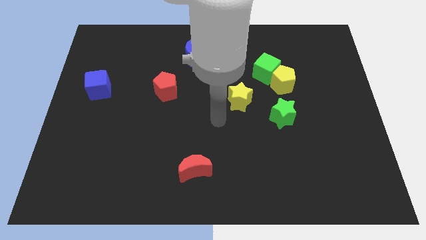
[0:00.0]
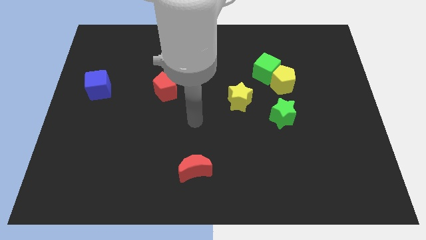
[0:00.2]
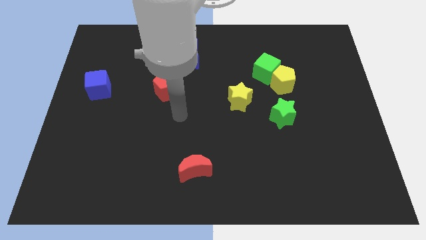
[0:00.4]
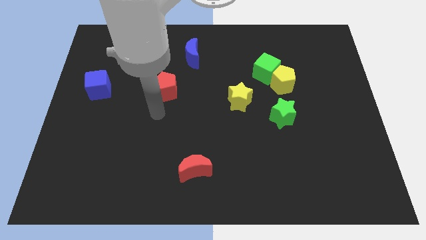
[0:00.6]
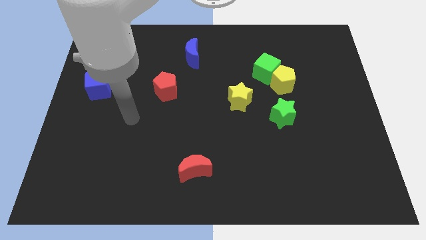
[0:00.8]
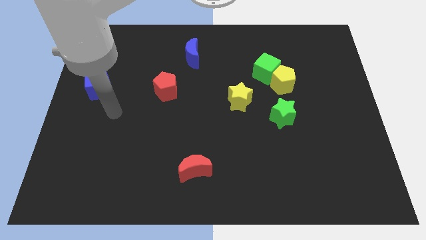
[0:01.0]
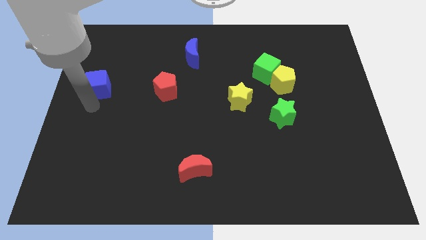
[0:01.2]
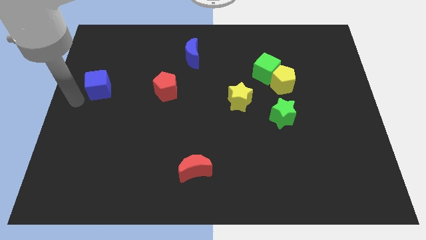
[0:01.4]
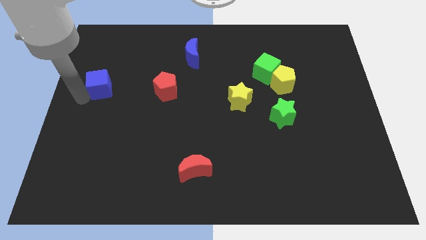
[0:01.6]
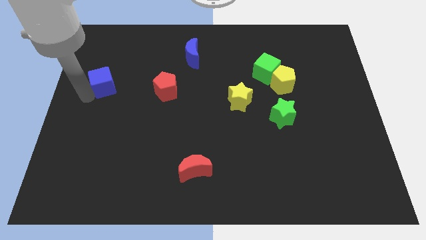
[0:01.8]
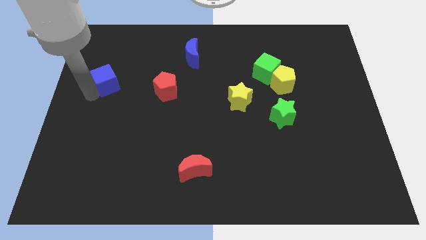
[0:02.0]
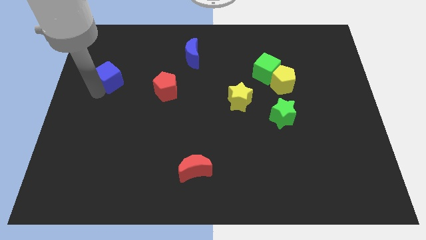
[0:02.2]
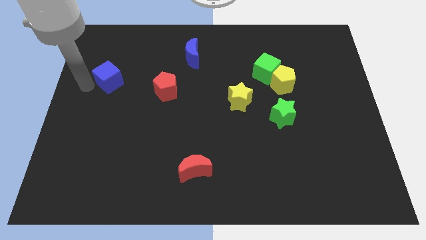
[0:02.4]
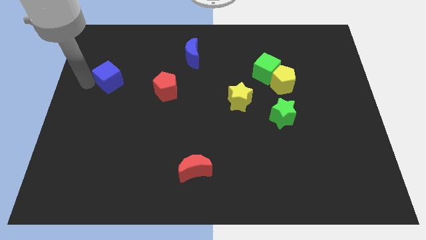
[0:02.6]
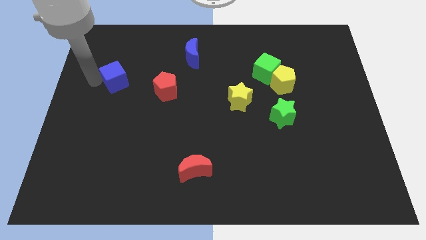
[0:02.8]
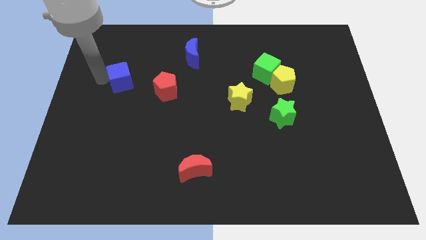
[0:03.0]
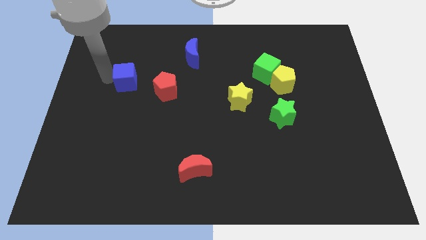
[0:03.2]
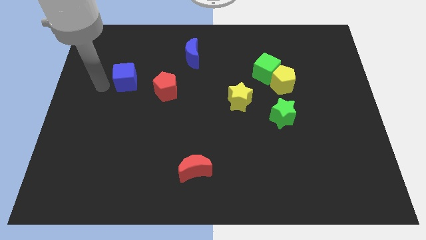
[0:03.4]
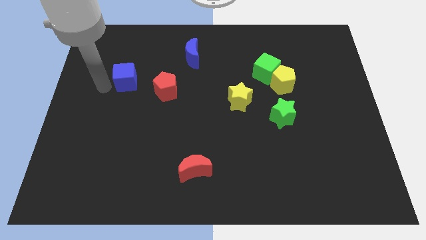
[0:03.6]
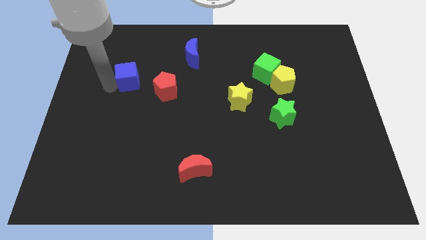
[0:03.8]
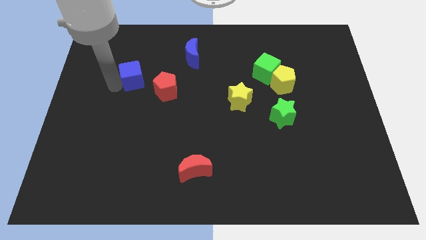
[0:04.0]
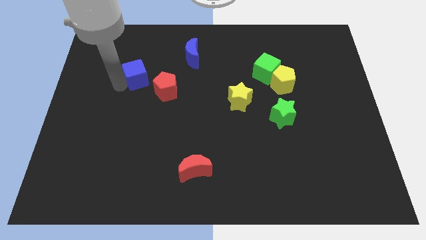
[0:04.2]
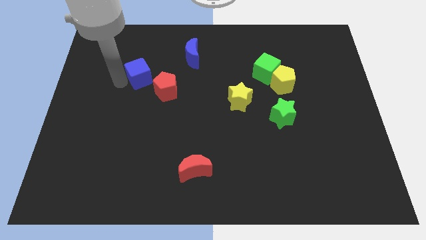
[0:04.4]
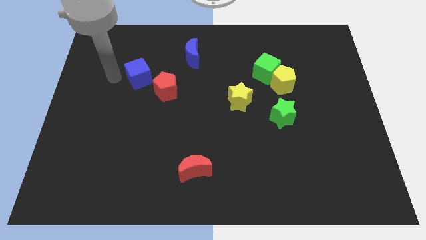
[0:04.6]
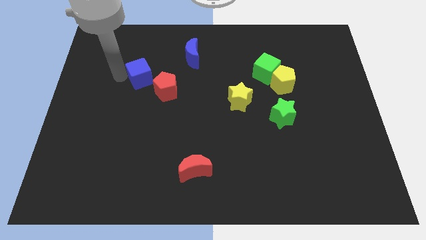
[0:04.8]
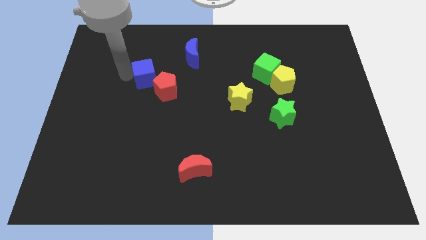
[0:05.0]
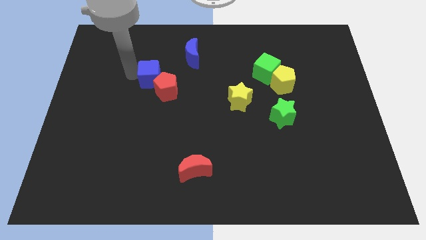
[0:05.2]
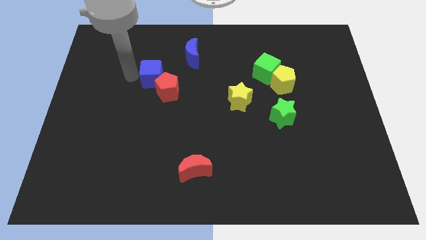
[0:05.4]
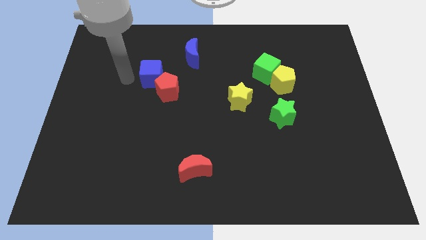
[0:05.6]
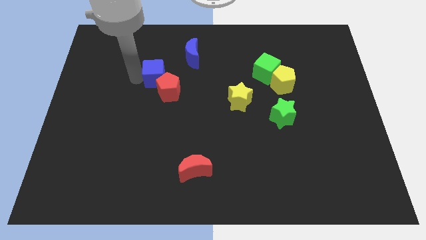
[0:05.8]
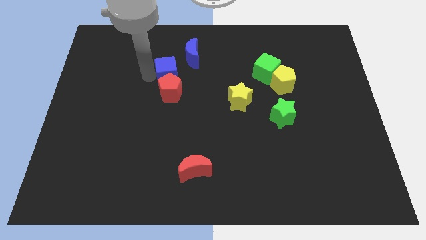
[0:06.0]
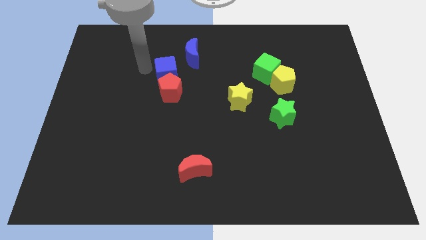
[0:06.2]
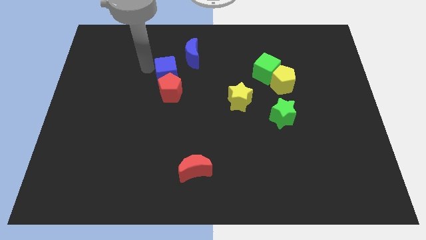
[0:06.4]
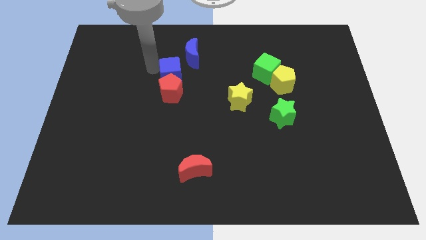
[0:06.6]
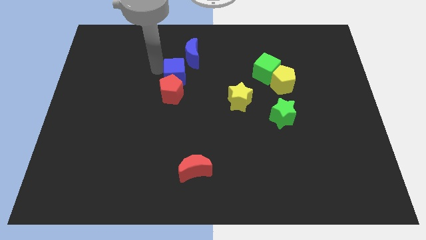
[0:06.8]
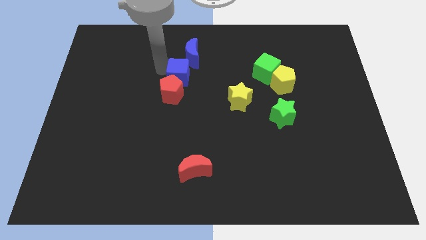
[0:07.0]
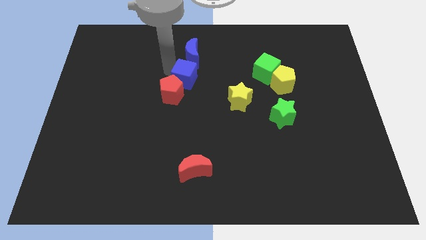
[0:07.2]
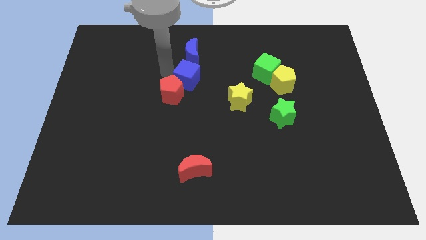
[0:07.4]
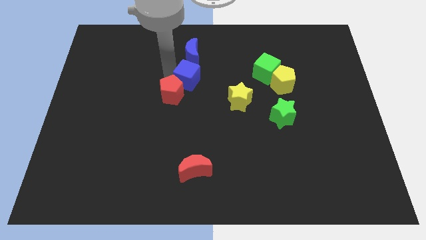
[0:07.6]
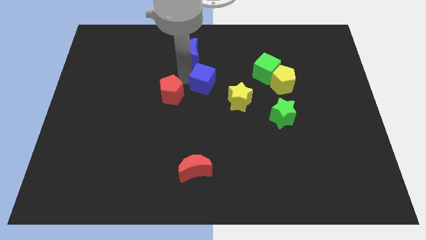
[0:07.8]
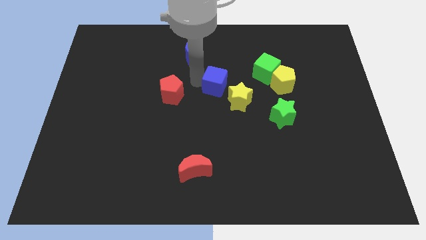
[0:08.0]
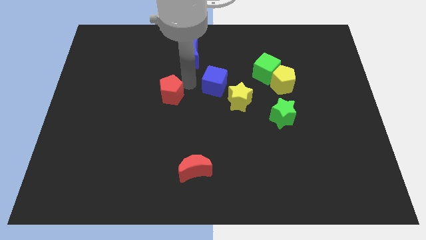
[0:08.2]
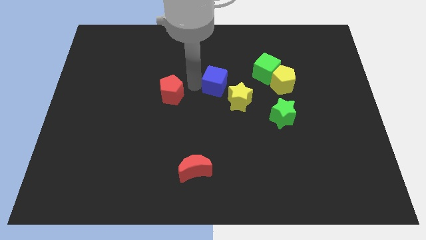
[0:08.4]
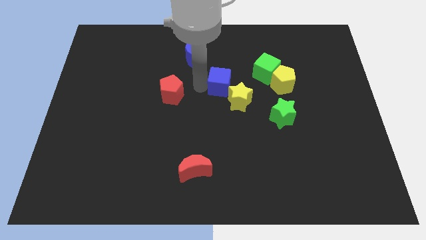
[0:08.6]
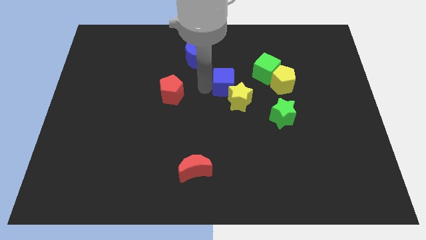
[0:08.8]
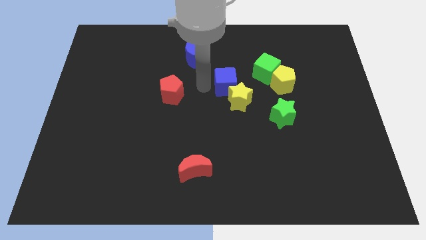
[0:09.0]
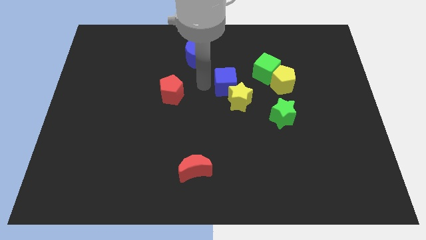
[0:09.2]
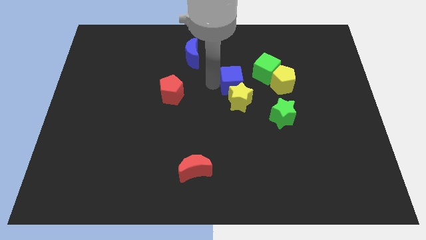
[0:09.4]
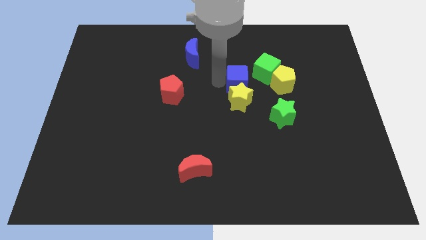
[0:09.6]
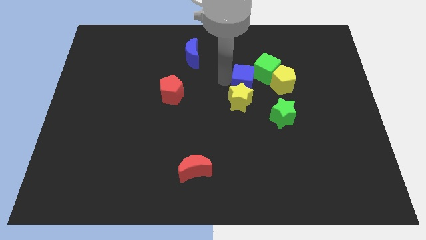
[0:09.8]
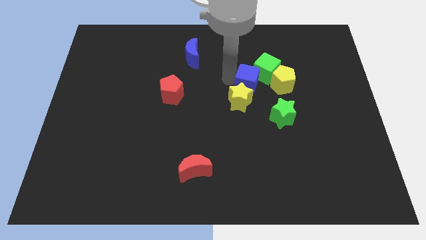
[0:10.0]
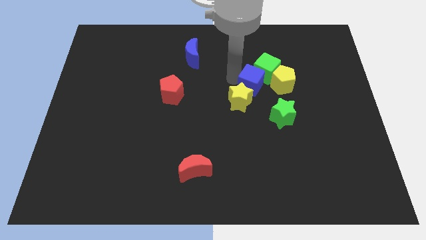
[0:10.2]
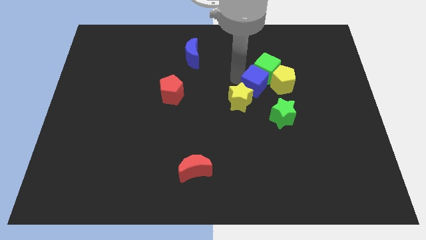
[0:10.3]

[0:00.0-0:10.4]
put the blue cube to the right of the yellow star

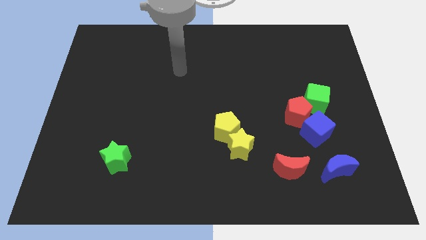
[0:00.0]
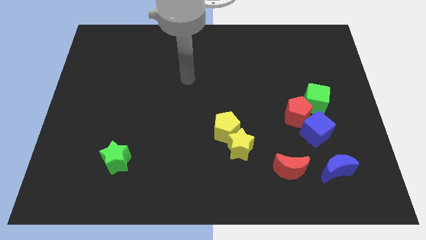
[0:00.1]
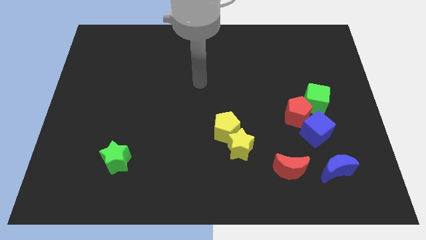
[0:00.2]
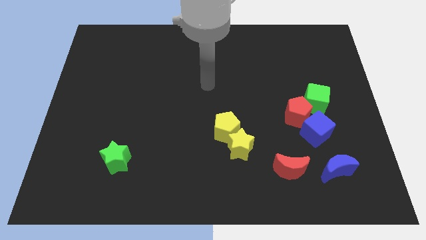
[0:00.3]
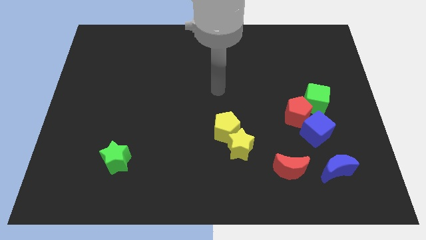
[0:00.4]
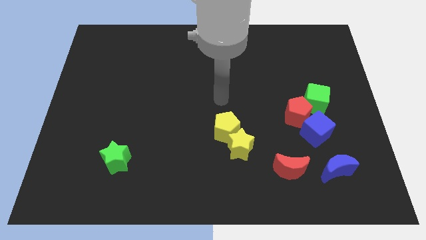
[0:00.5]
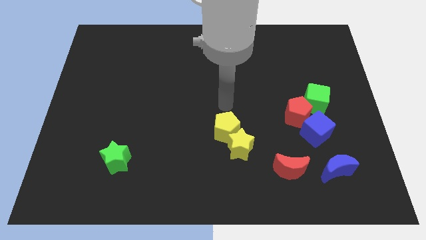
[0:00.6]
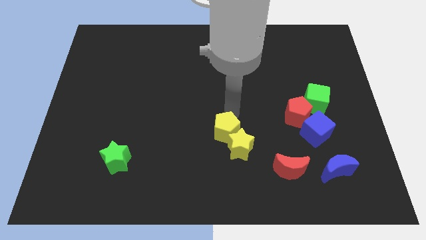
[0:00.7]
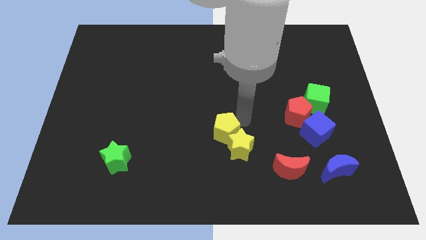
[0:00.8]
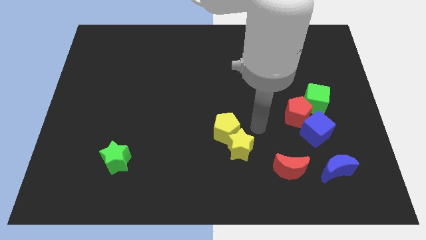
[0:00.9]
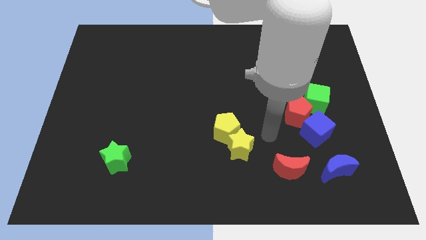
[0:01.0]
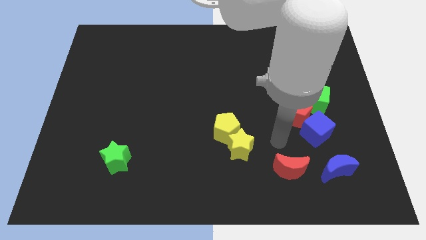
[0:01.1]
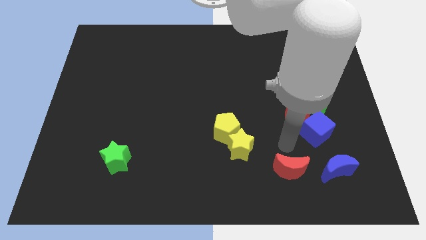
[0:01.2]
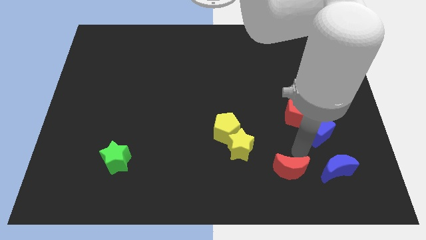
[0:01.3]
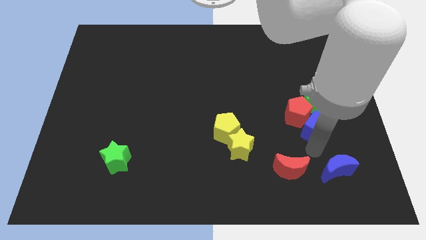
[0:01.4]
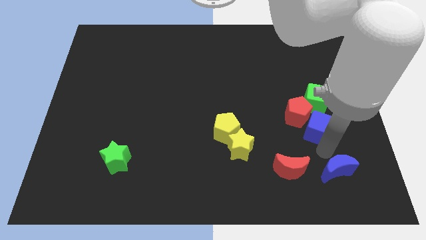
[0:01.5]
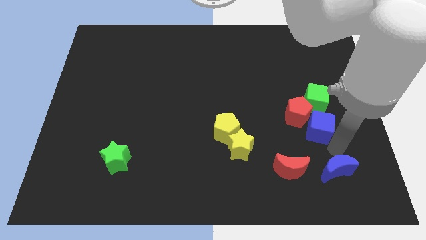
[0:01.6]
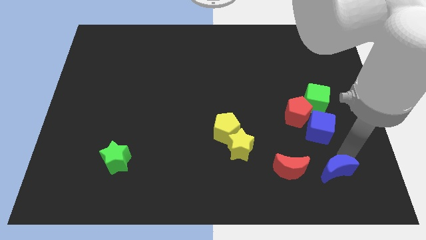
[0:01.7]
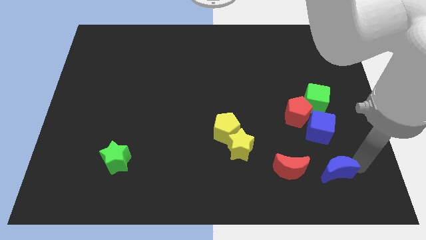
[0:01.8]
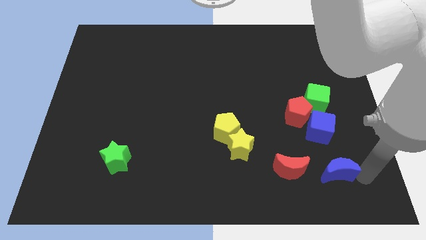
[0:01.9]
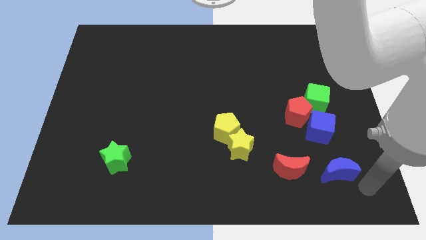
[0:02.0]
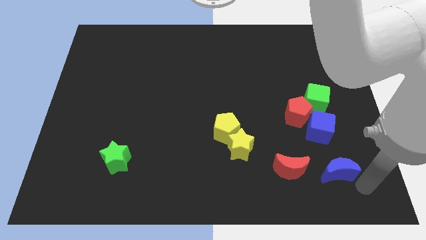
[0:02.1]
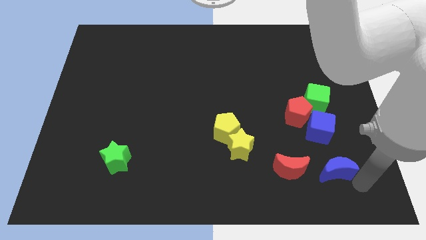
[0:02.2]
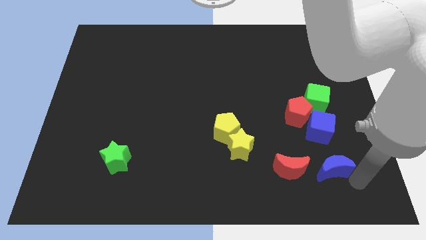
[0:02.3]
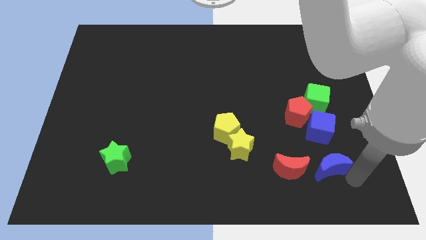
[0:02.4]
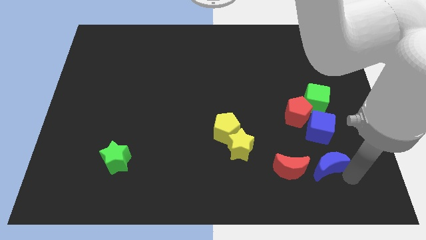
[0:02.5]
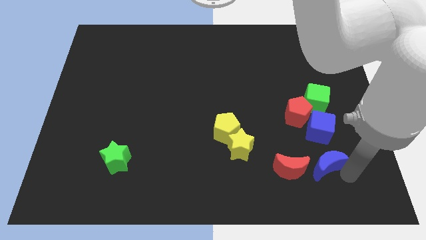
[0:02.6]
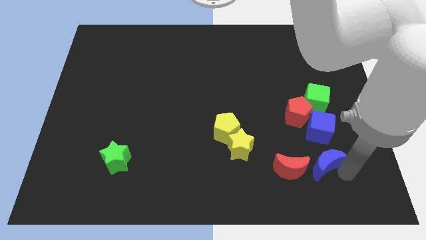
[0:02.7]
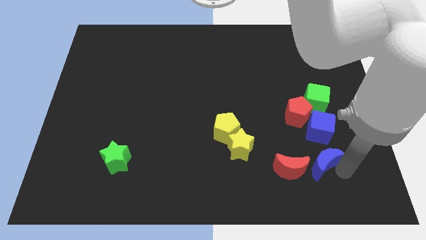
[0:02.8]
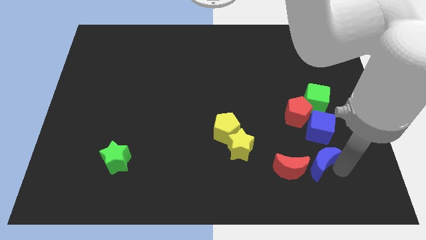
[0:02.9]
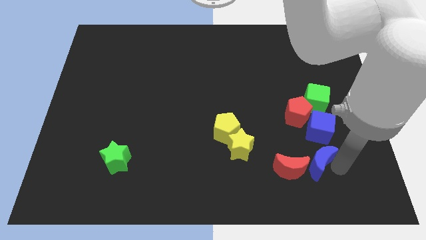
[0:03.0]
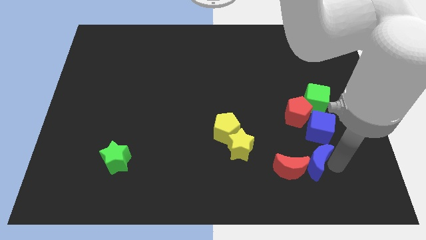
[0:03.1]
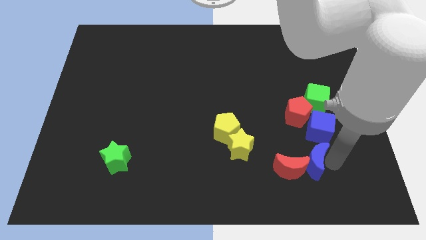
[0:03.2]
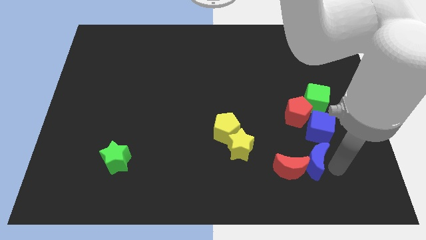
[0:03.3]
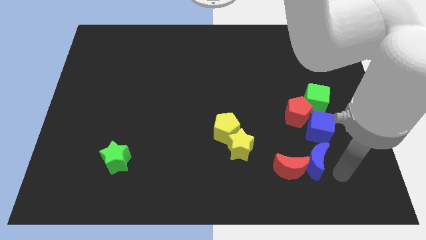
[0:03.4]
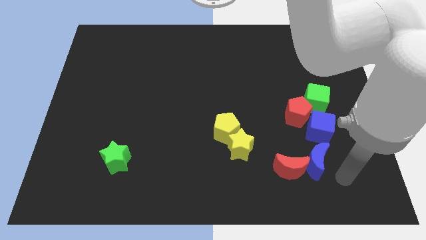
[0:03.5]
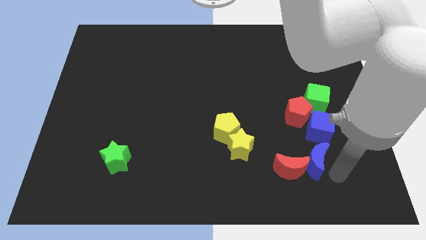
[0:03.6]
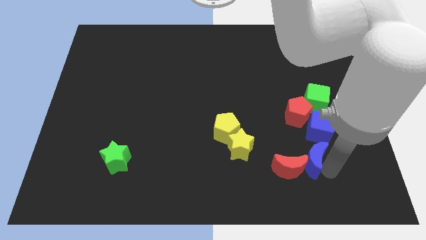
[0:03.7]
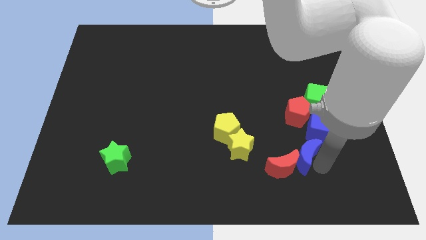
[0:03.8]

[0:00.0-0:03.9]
put the blue moon just right of the yellow star
